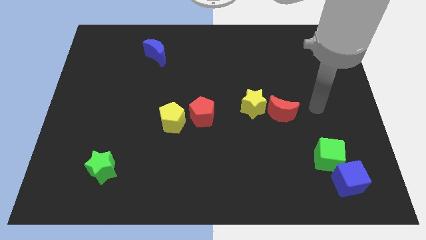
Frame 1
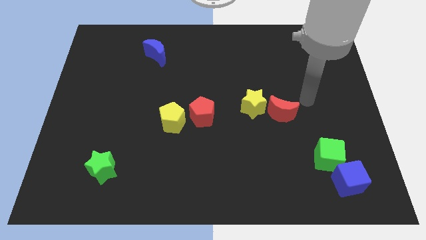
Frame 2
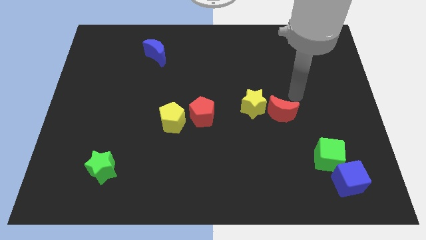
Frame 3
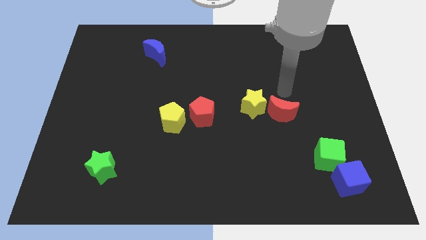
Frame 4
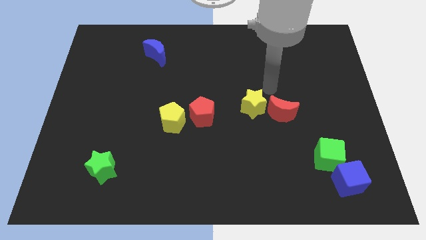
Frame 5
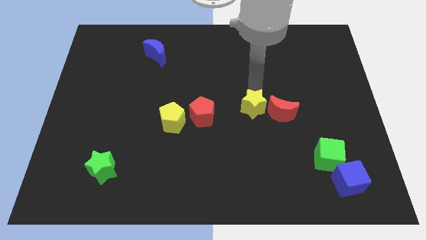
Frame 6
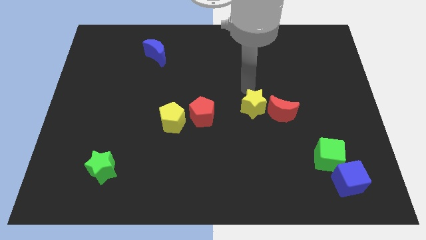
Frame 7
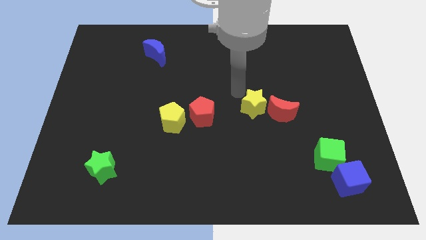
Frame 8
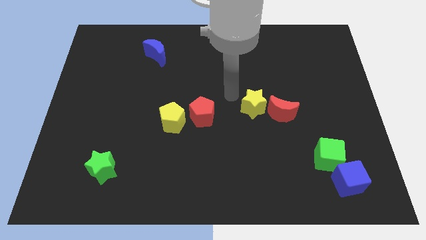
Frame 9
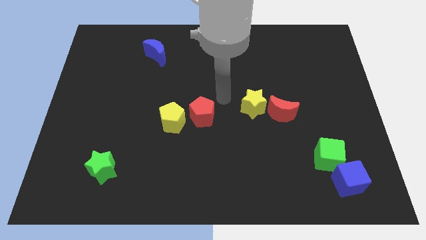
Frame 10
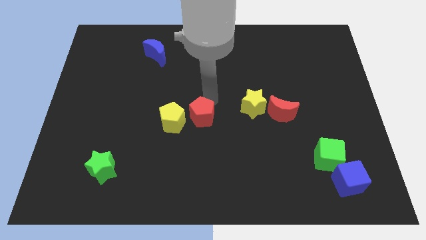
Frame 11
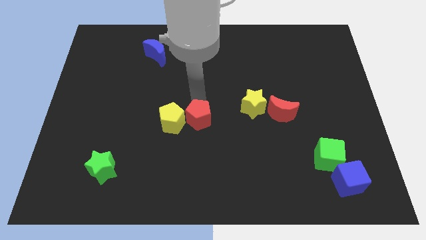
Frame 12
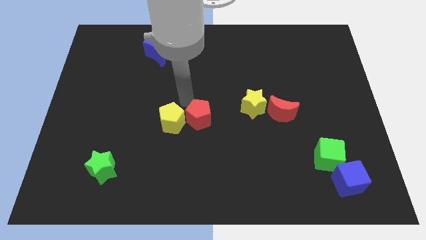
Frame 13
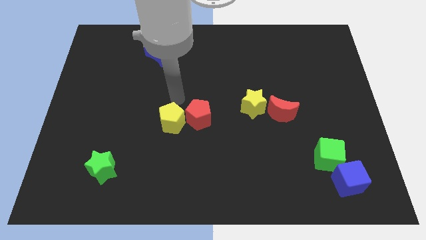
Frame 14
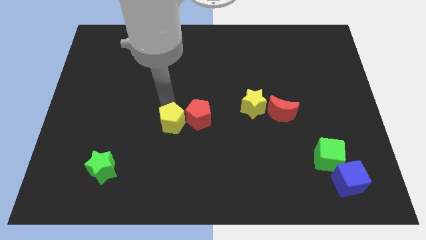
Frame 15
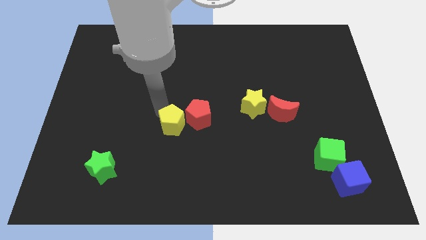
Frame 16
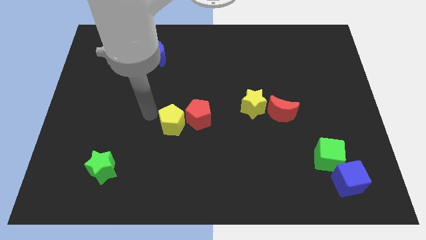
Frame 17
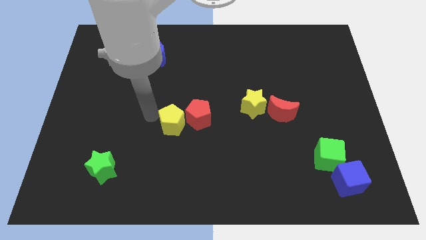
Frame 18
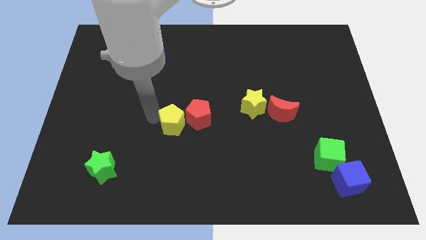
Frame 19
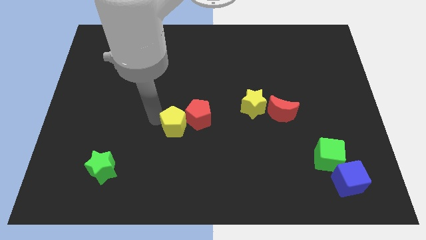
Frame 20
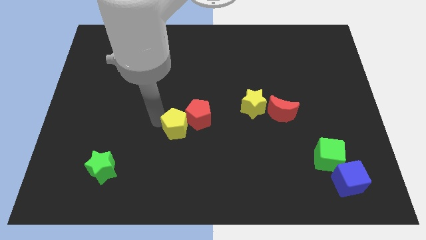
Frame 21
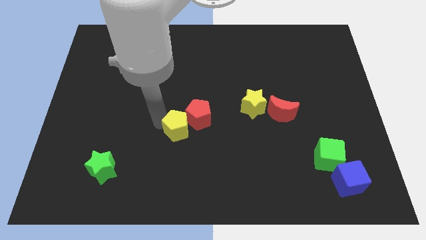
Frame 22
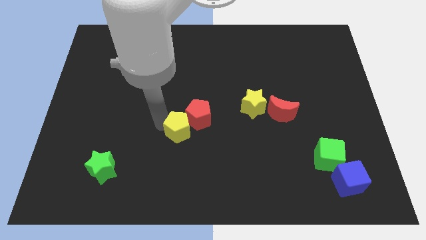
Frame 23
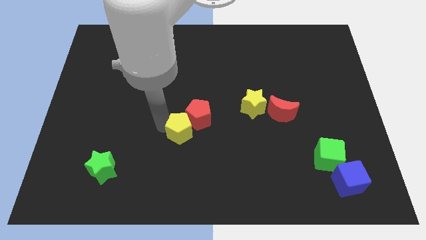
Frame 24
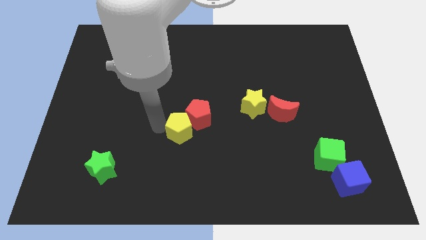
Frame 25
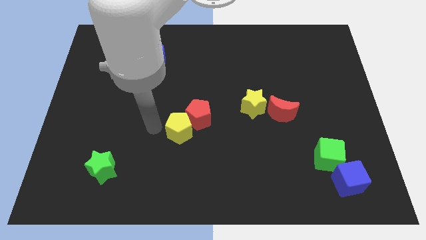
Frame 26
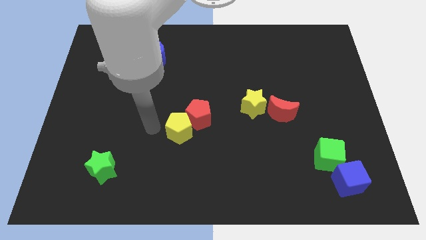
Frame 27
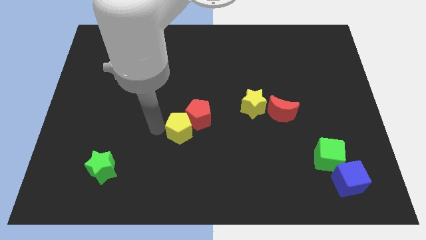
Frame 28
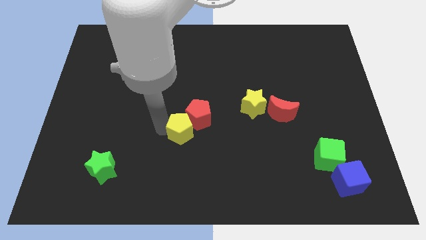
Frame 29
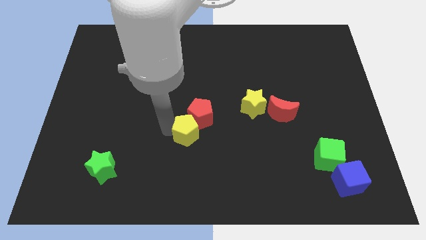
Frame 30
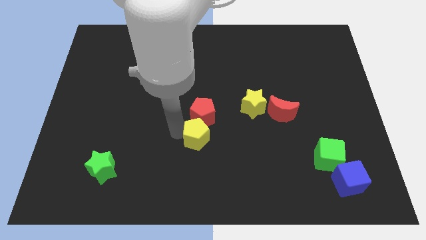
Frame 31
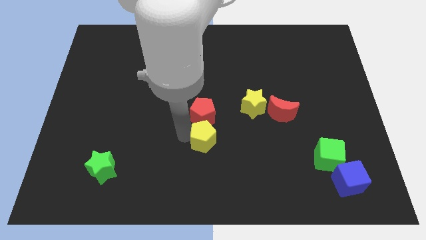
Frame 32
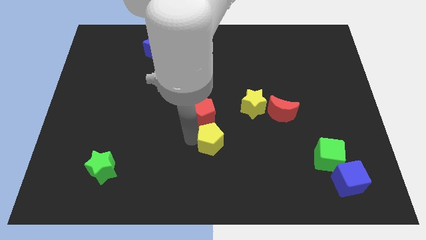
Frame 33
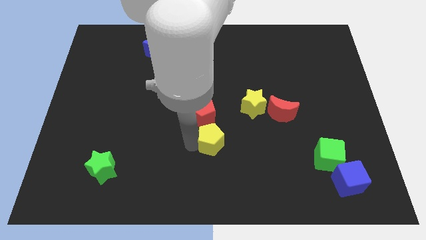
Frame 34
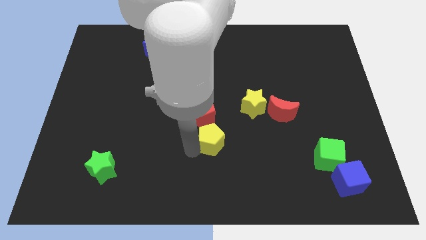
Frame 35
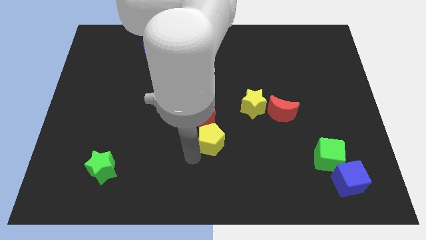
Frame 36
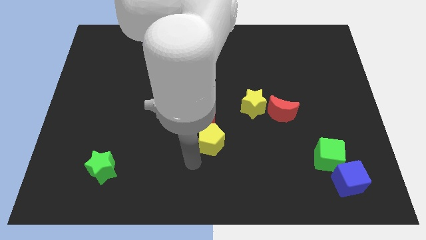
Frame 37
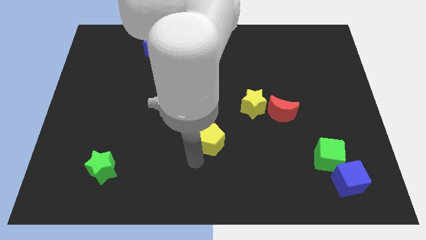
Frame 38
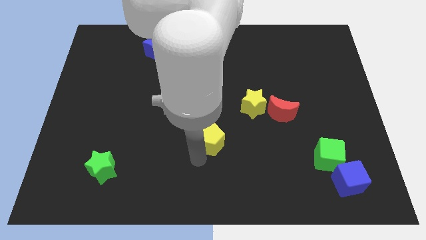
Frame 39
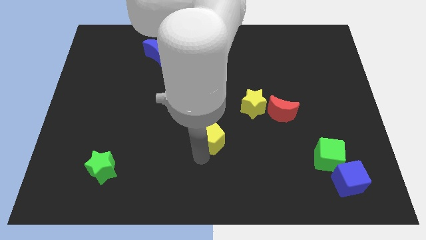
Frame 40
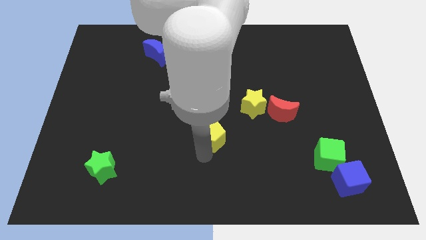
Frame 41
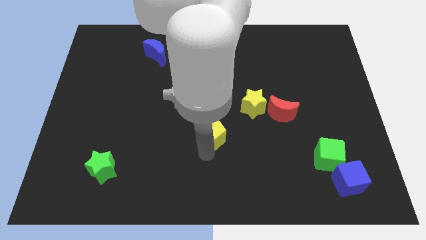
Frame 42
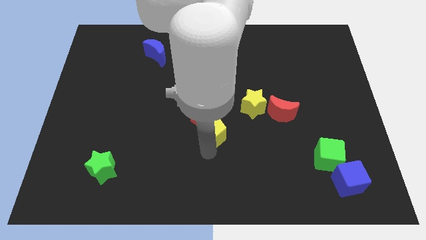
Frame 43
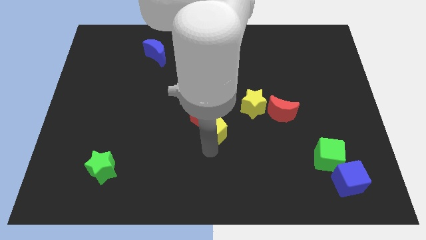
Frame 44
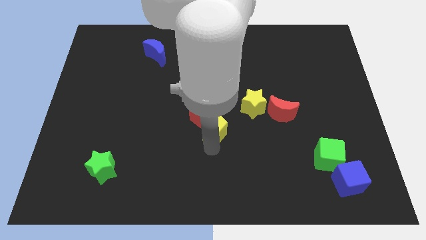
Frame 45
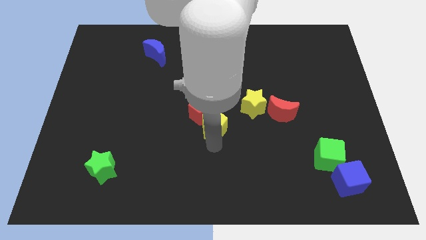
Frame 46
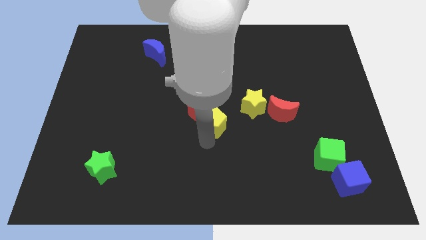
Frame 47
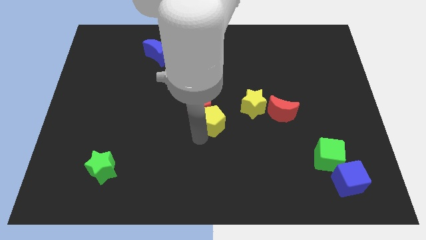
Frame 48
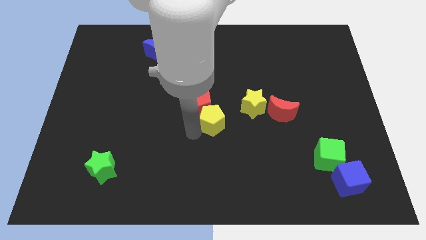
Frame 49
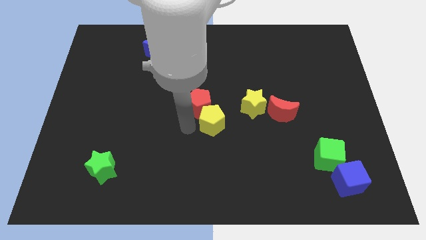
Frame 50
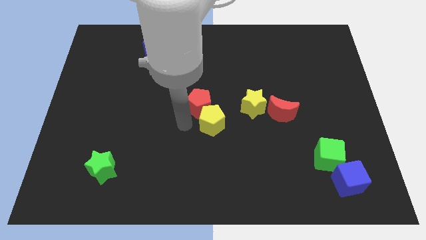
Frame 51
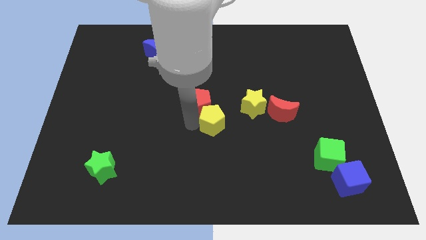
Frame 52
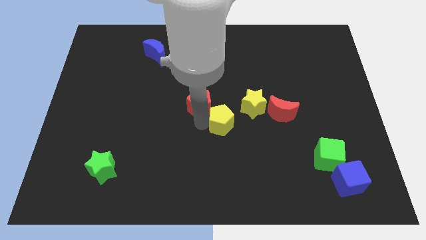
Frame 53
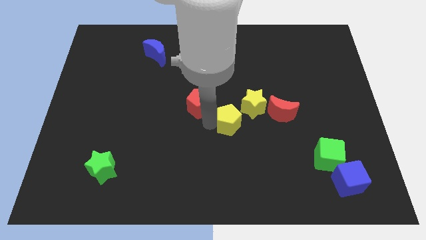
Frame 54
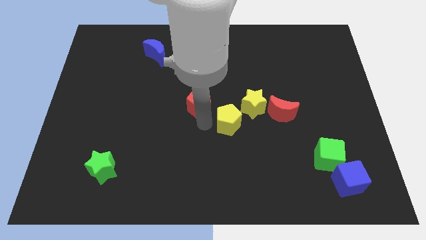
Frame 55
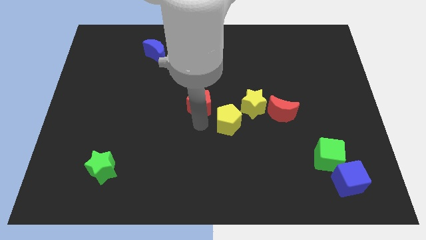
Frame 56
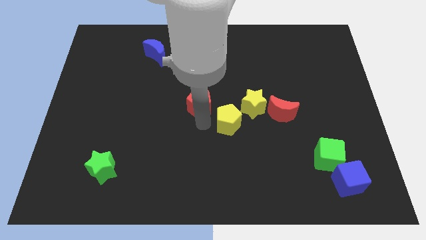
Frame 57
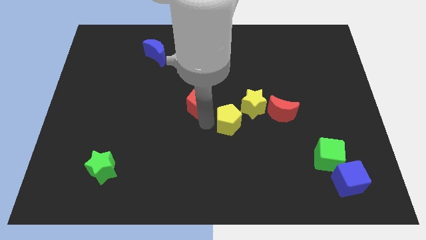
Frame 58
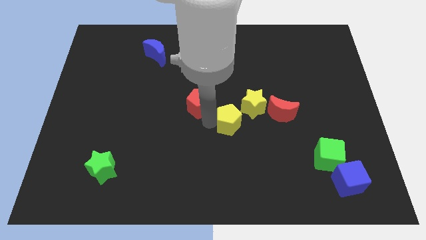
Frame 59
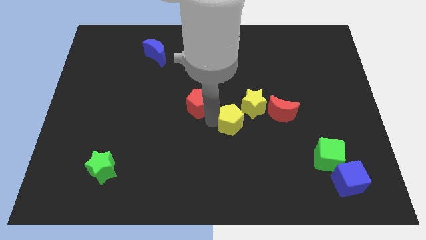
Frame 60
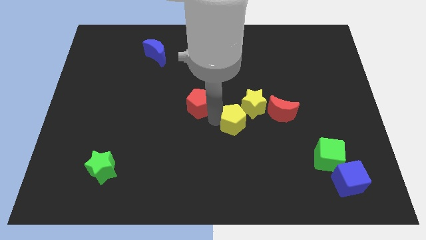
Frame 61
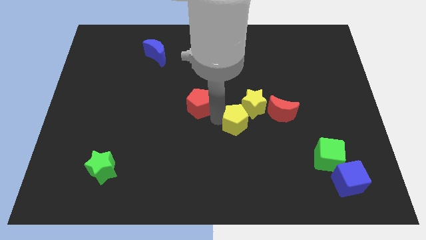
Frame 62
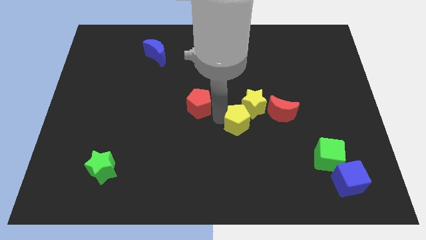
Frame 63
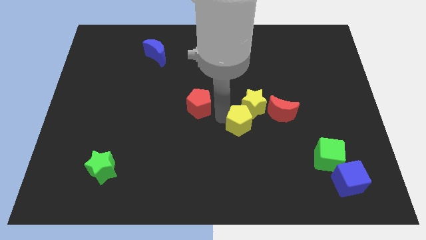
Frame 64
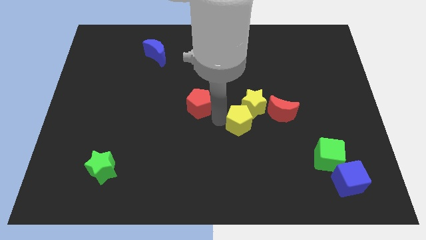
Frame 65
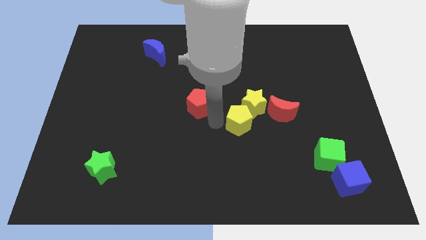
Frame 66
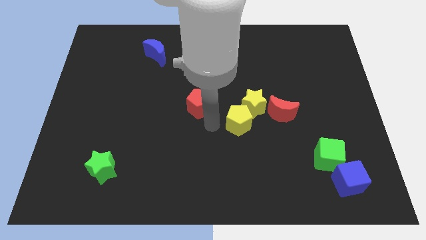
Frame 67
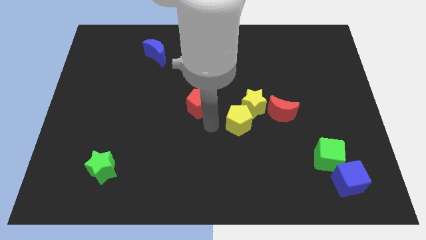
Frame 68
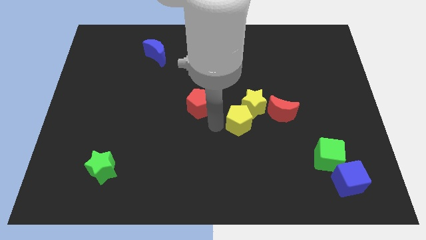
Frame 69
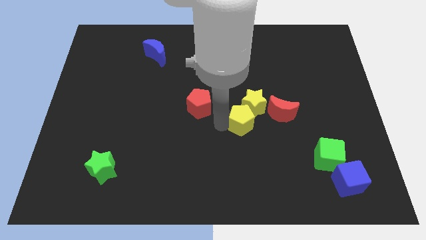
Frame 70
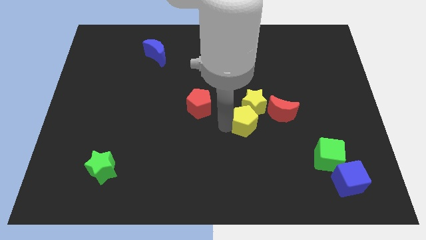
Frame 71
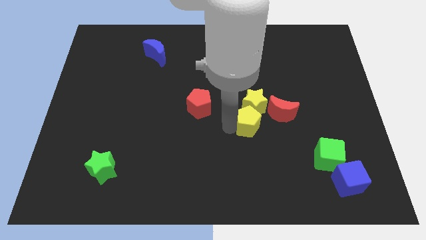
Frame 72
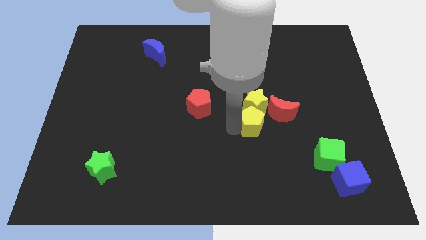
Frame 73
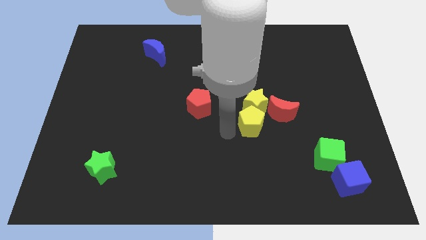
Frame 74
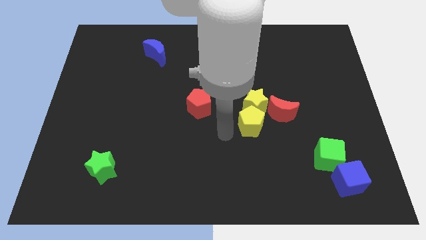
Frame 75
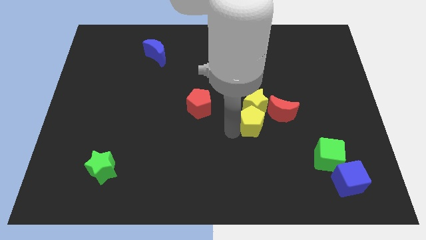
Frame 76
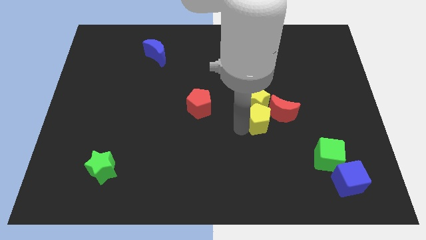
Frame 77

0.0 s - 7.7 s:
put the yellow pentagon towards the red moon

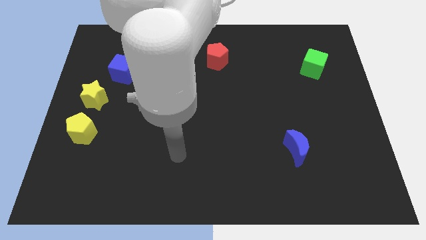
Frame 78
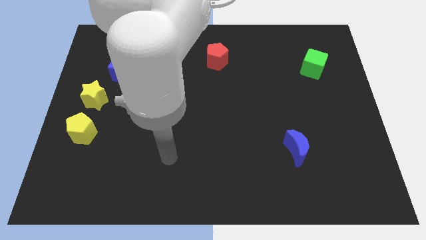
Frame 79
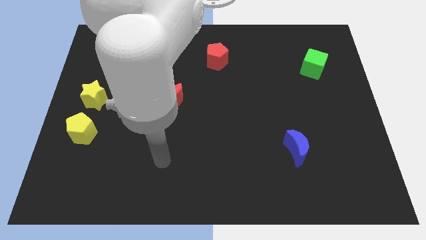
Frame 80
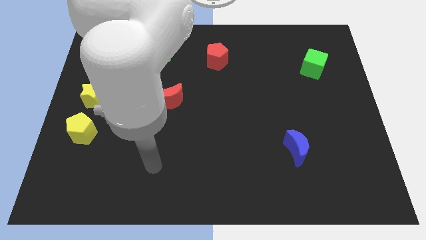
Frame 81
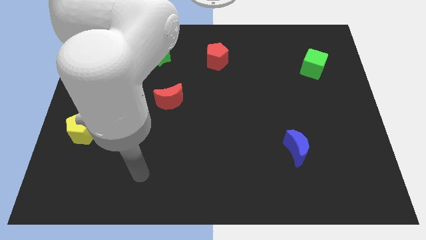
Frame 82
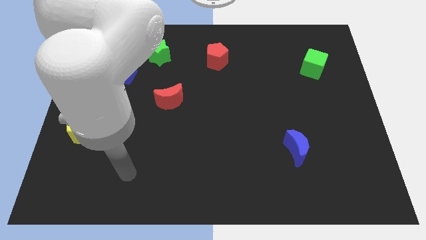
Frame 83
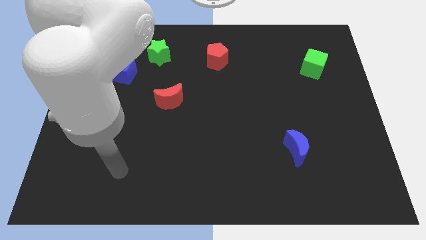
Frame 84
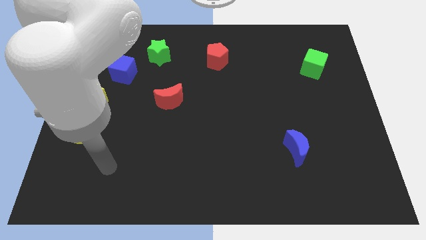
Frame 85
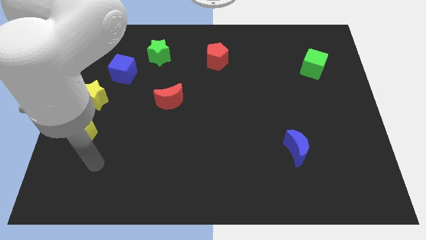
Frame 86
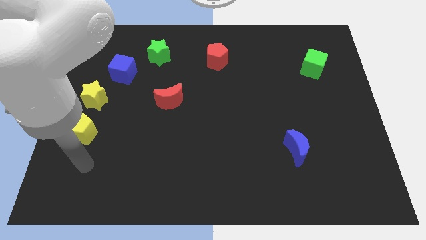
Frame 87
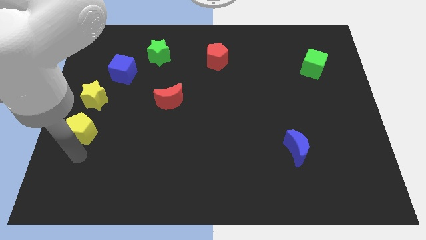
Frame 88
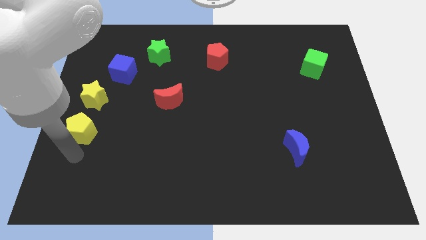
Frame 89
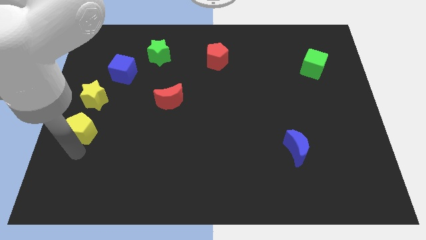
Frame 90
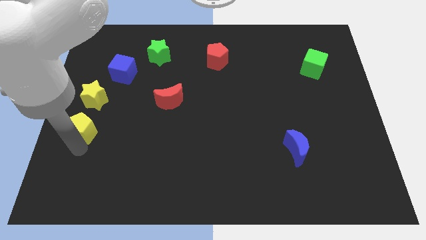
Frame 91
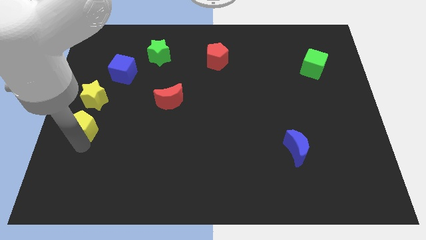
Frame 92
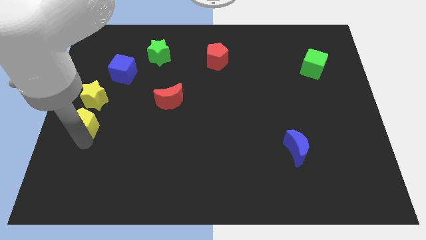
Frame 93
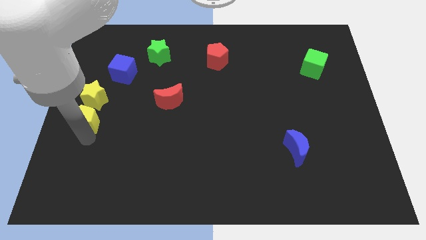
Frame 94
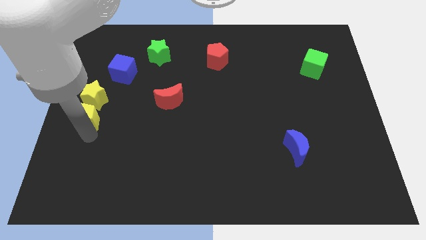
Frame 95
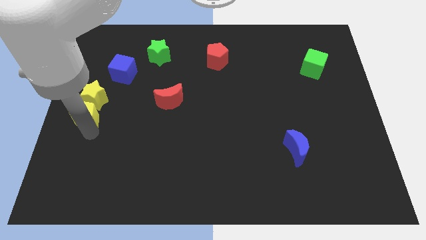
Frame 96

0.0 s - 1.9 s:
put the yellow pentagon close to the yellow star
